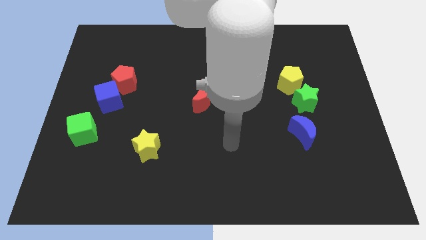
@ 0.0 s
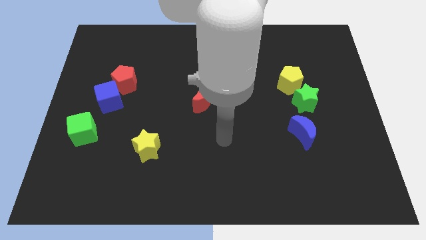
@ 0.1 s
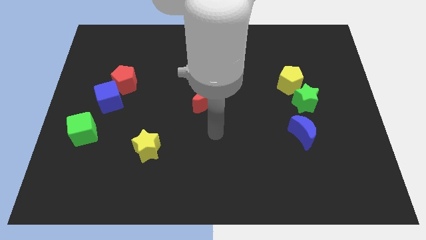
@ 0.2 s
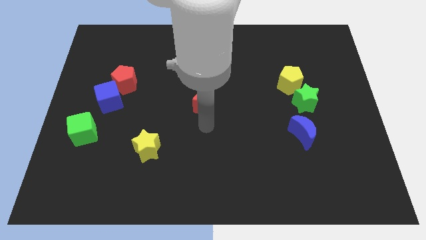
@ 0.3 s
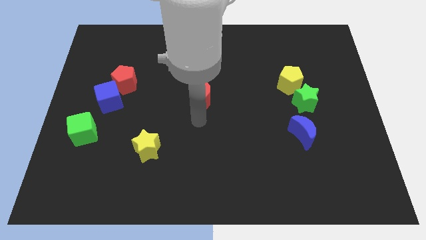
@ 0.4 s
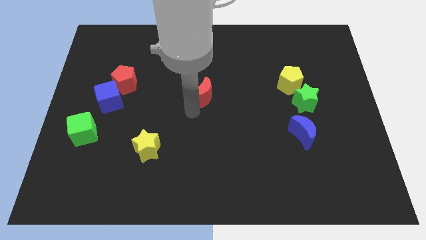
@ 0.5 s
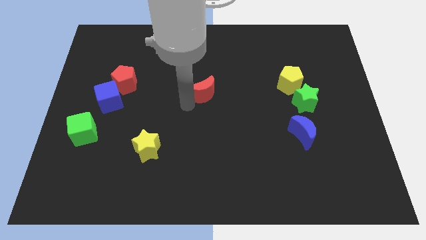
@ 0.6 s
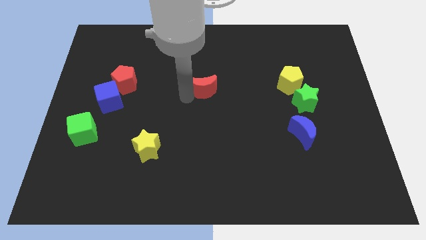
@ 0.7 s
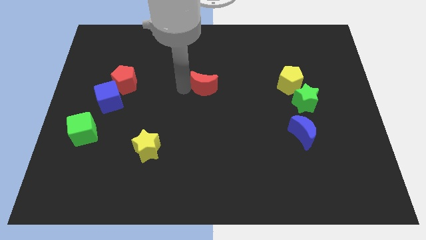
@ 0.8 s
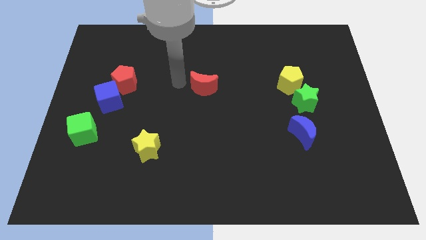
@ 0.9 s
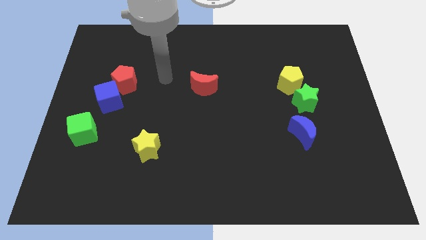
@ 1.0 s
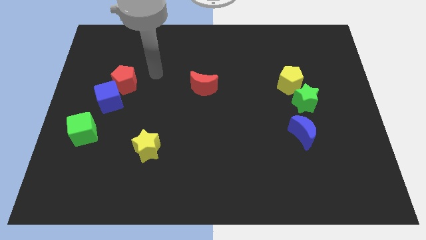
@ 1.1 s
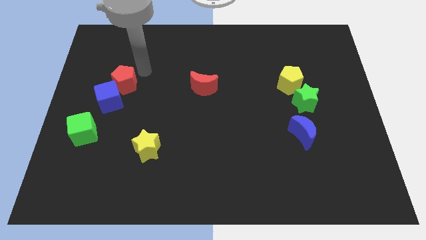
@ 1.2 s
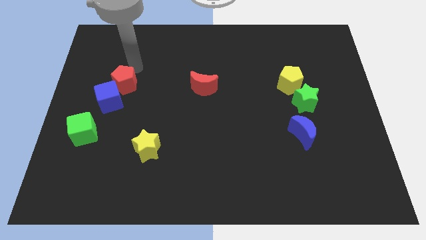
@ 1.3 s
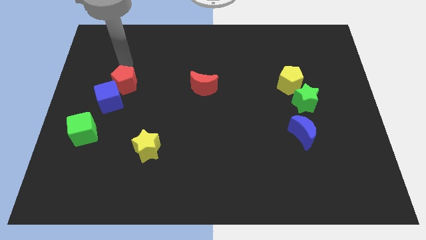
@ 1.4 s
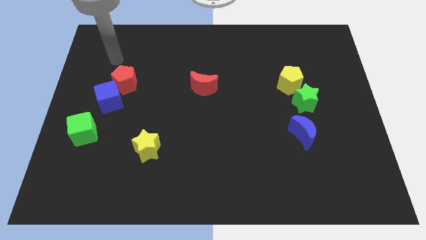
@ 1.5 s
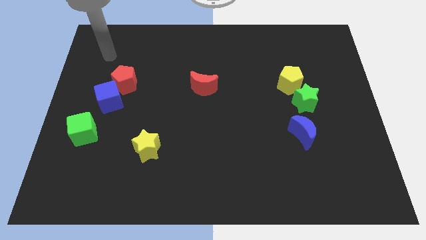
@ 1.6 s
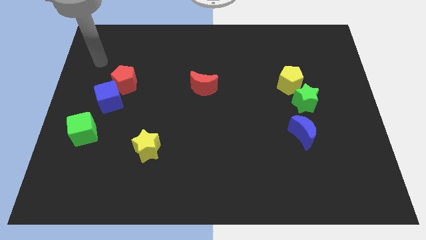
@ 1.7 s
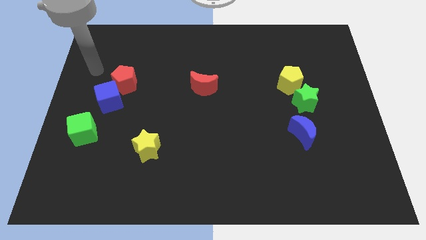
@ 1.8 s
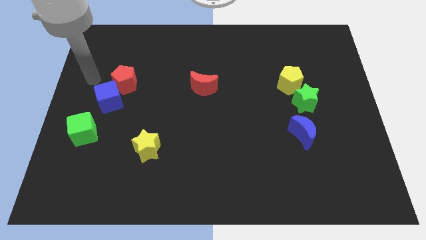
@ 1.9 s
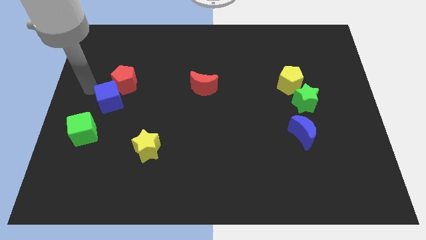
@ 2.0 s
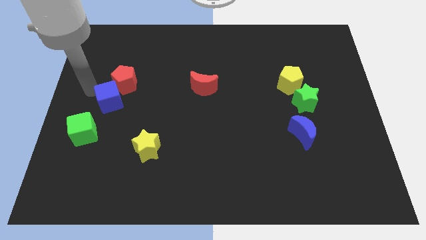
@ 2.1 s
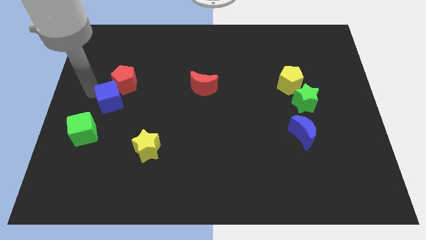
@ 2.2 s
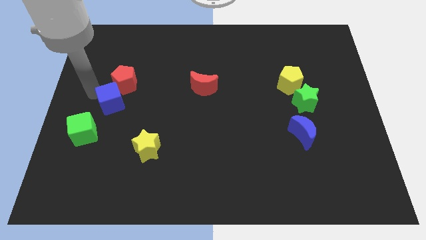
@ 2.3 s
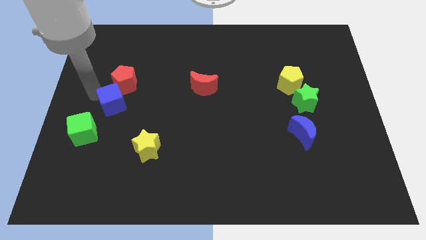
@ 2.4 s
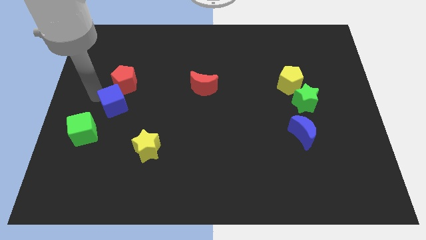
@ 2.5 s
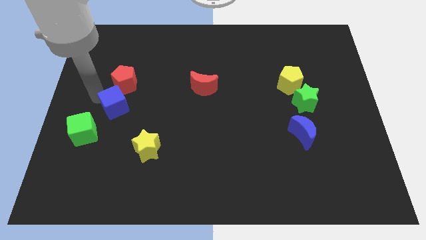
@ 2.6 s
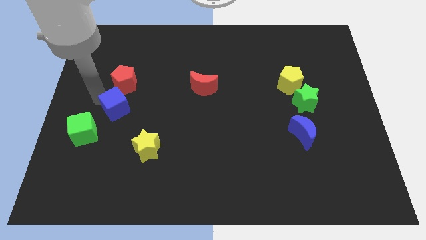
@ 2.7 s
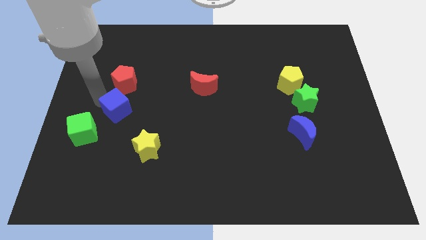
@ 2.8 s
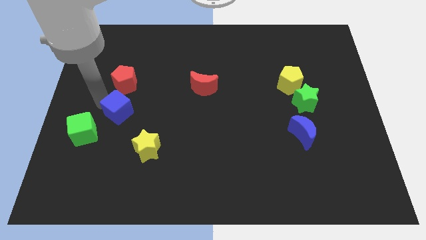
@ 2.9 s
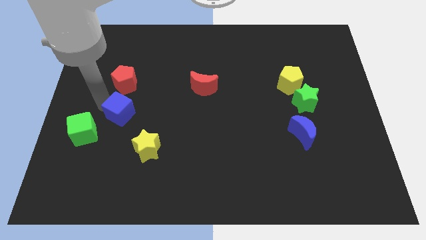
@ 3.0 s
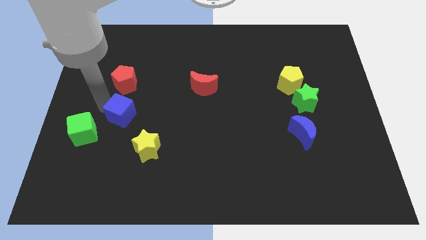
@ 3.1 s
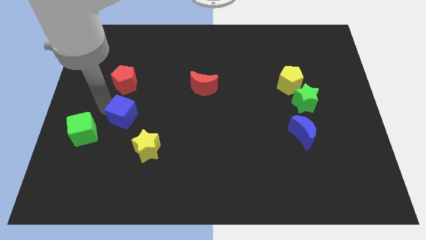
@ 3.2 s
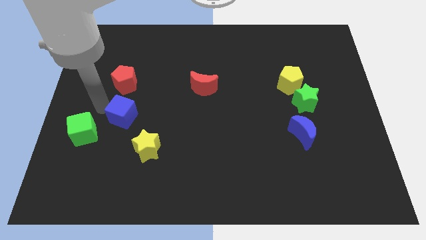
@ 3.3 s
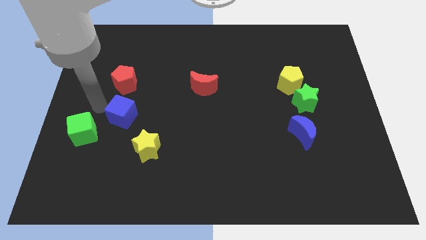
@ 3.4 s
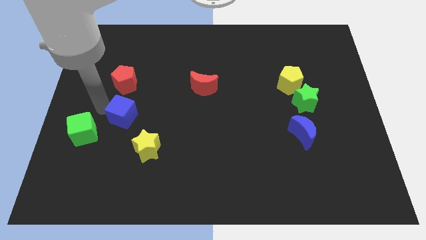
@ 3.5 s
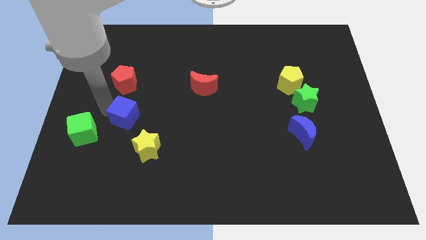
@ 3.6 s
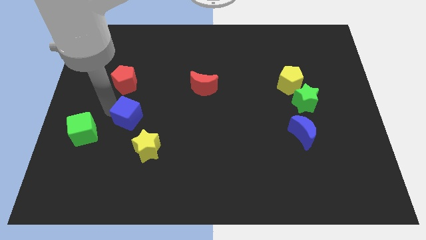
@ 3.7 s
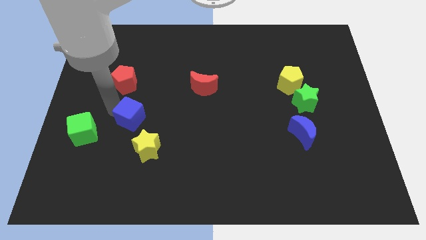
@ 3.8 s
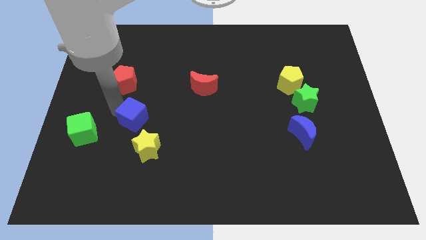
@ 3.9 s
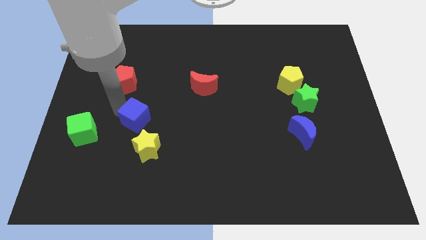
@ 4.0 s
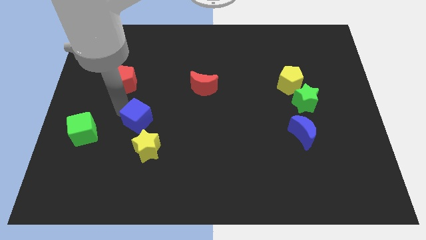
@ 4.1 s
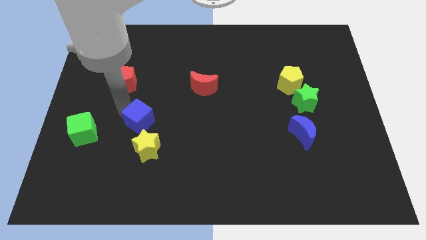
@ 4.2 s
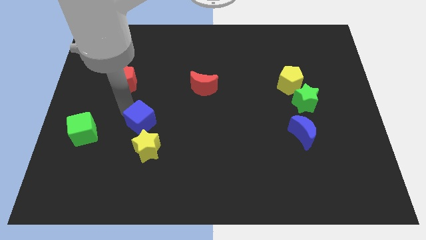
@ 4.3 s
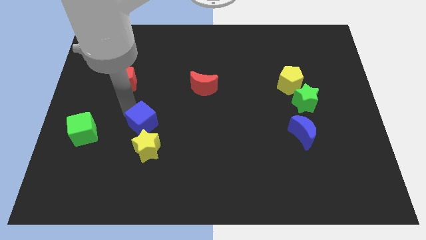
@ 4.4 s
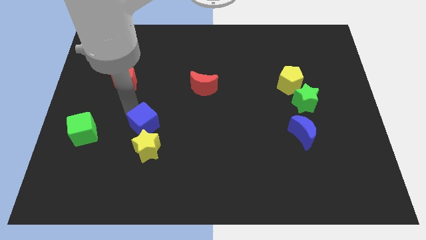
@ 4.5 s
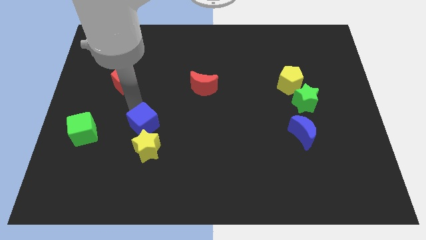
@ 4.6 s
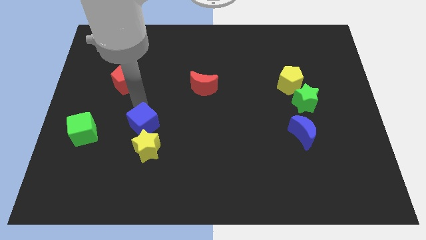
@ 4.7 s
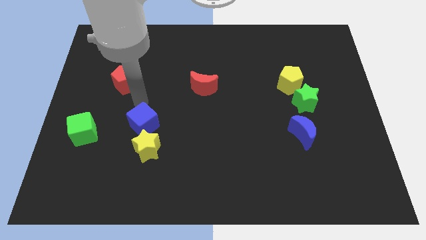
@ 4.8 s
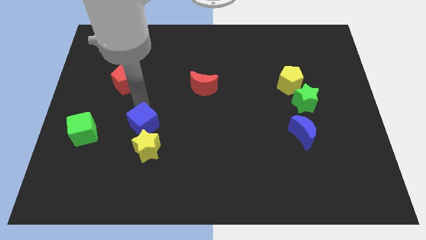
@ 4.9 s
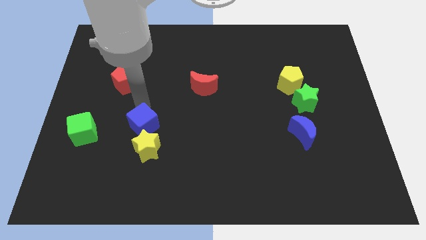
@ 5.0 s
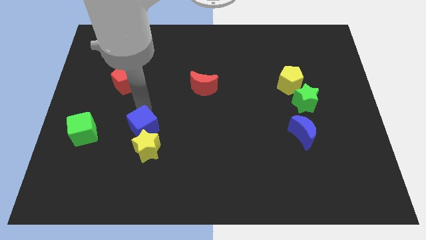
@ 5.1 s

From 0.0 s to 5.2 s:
put the blue cube towards the yellow star

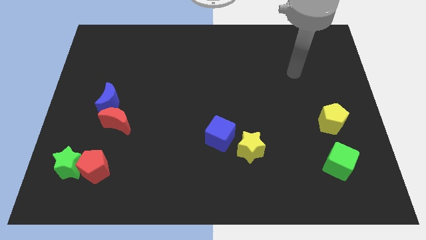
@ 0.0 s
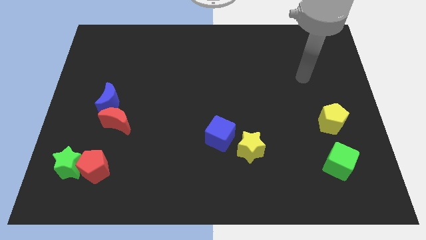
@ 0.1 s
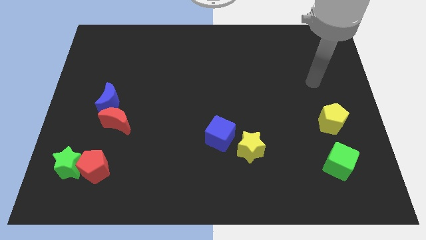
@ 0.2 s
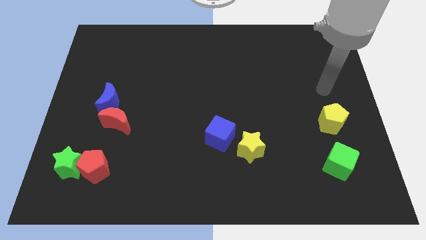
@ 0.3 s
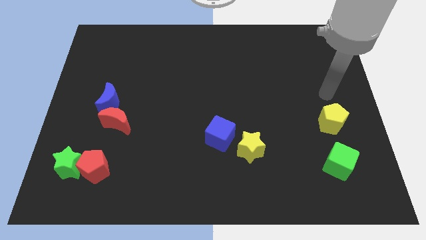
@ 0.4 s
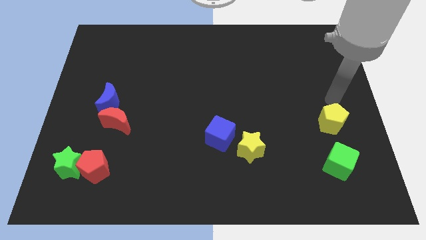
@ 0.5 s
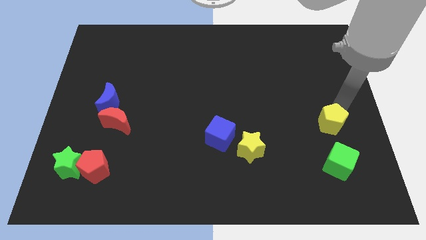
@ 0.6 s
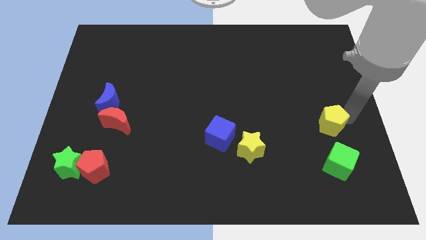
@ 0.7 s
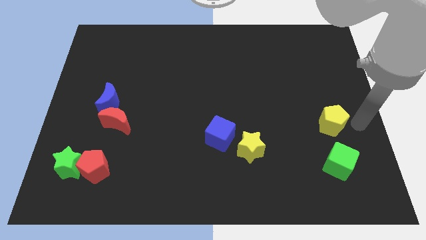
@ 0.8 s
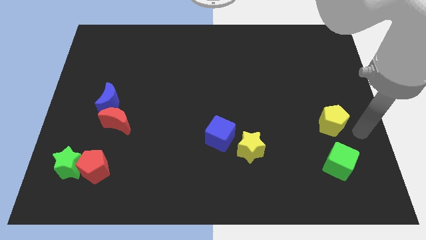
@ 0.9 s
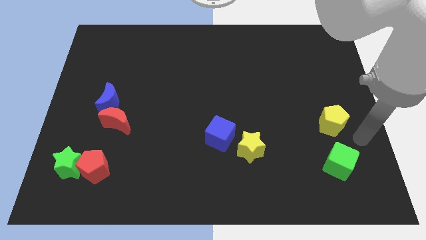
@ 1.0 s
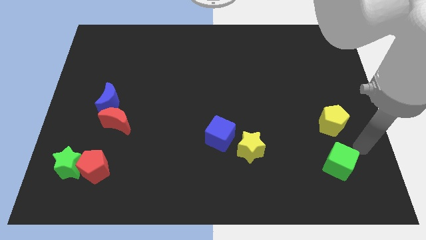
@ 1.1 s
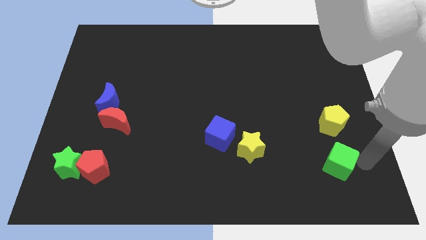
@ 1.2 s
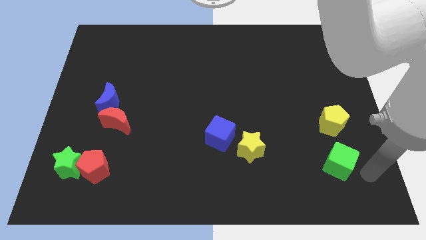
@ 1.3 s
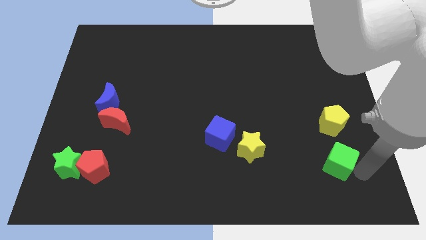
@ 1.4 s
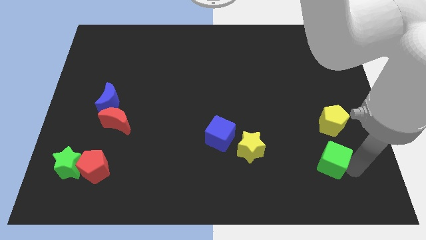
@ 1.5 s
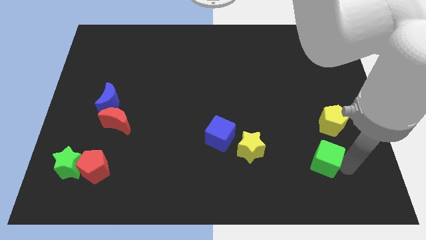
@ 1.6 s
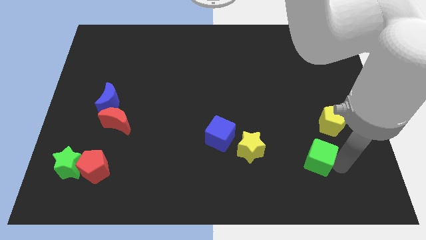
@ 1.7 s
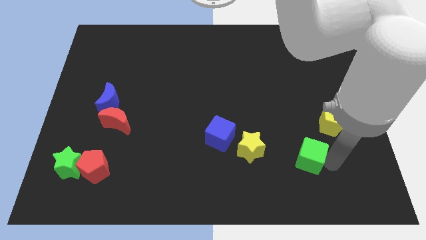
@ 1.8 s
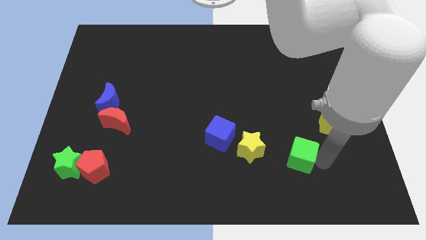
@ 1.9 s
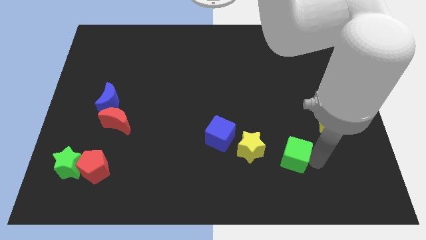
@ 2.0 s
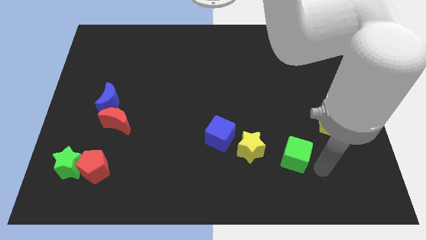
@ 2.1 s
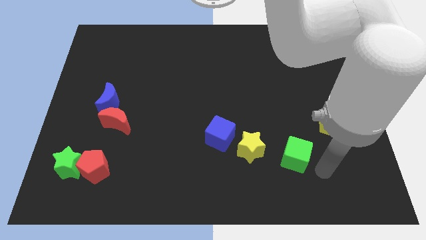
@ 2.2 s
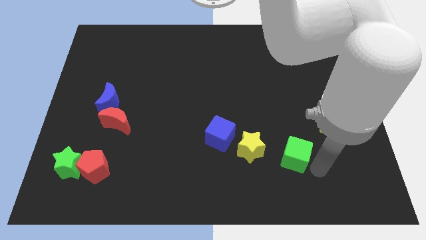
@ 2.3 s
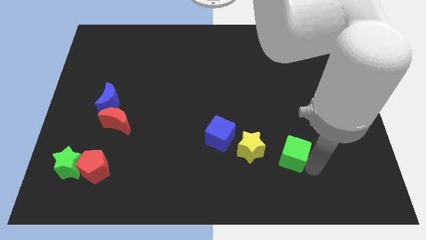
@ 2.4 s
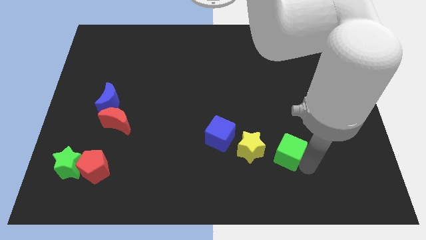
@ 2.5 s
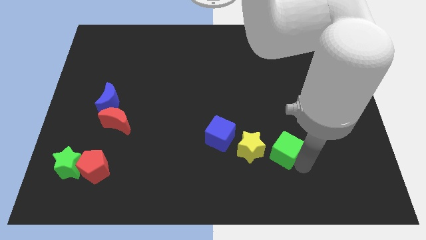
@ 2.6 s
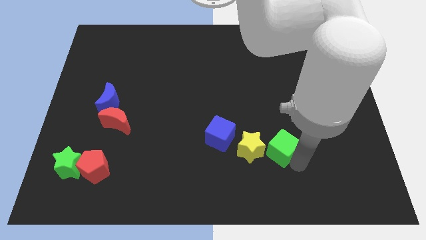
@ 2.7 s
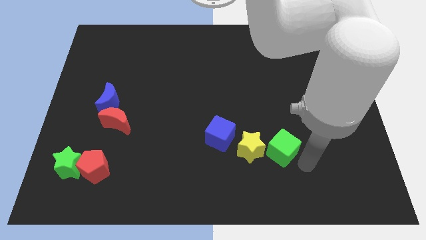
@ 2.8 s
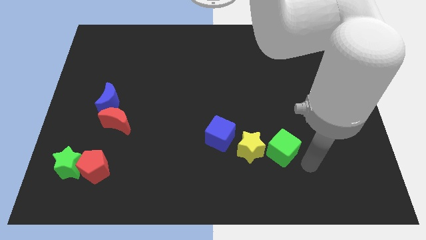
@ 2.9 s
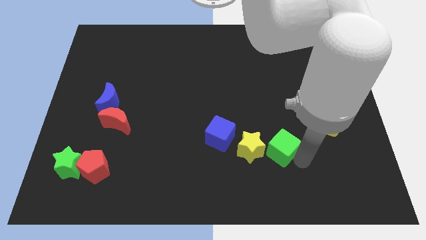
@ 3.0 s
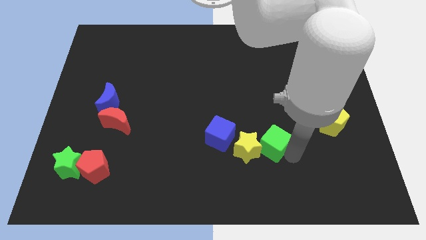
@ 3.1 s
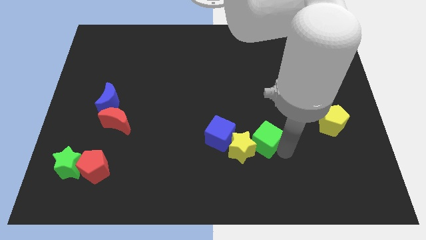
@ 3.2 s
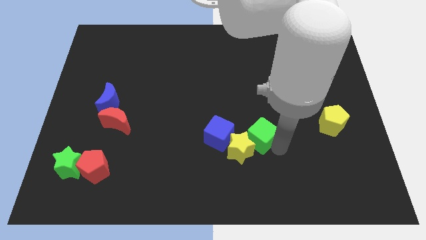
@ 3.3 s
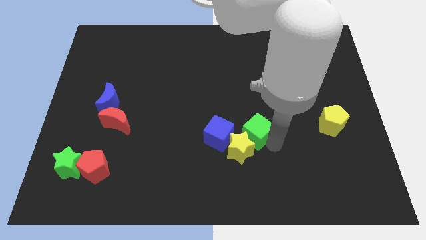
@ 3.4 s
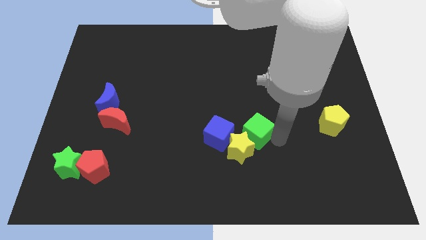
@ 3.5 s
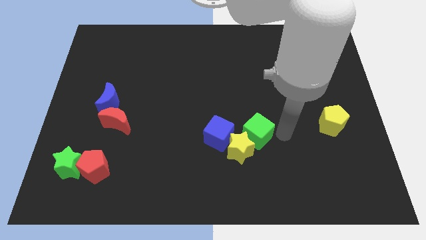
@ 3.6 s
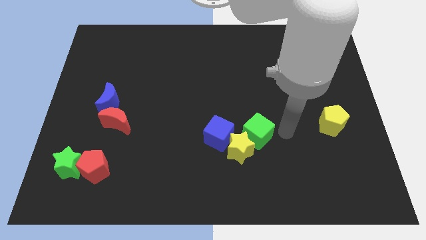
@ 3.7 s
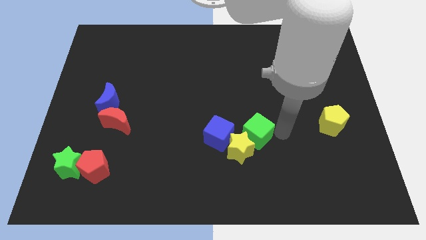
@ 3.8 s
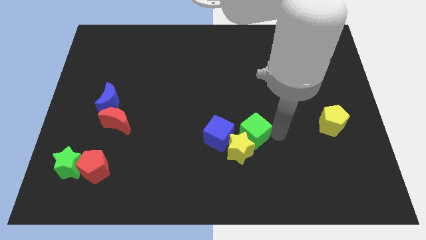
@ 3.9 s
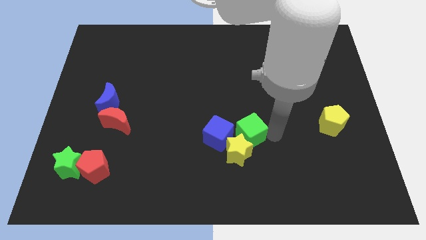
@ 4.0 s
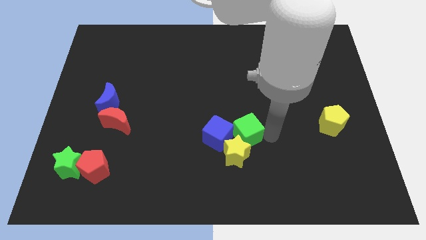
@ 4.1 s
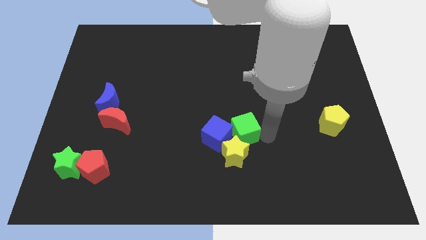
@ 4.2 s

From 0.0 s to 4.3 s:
push the green cube next to the blue cube
